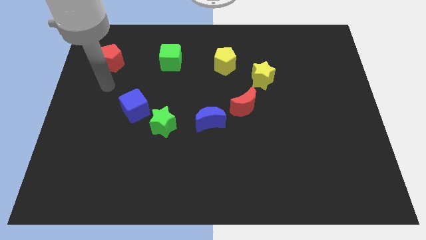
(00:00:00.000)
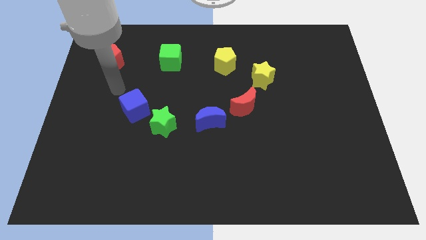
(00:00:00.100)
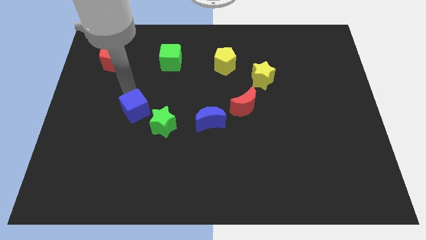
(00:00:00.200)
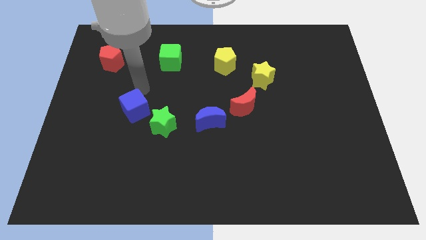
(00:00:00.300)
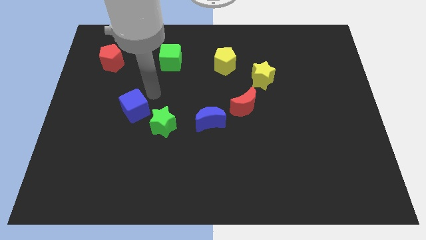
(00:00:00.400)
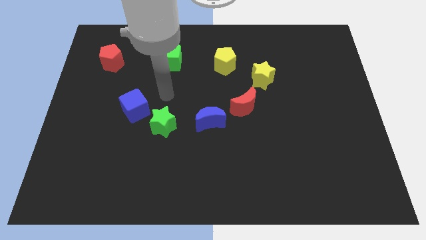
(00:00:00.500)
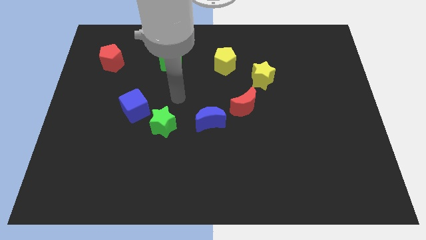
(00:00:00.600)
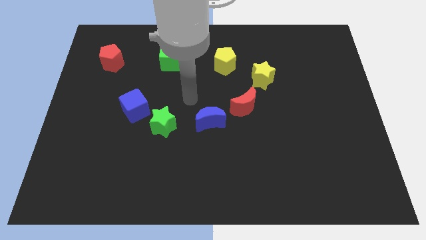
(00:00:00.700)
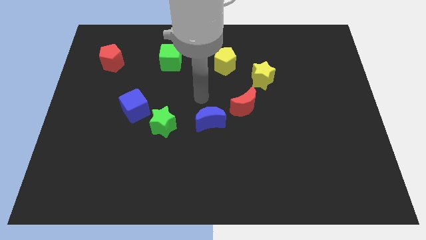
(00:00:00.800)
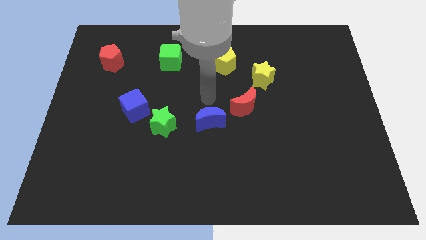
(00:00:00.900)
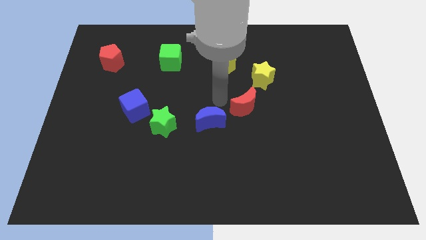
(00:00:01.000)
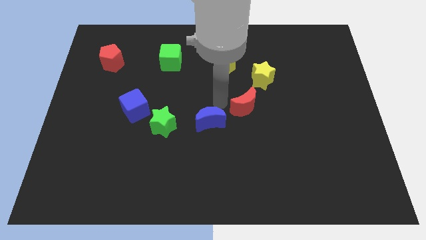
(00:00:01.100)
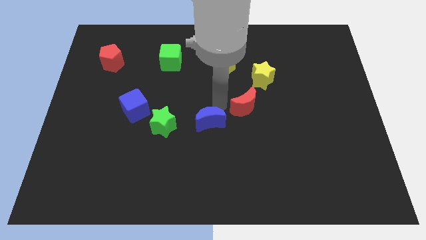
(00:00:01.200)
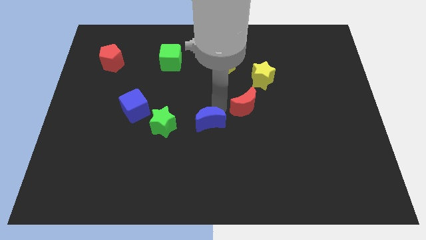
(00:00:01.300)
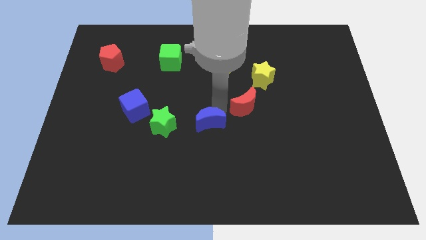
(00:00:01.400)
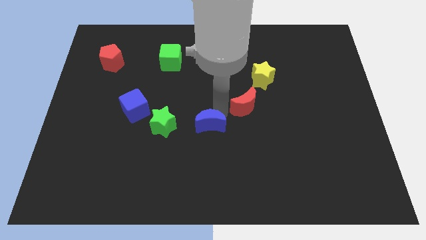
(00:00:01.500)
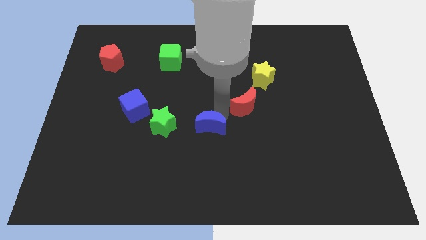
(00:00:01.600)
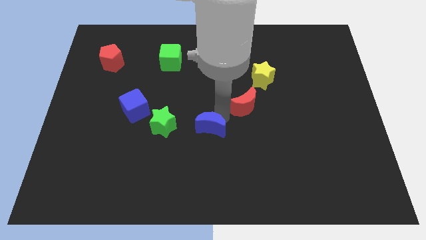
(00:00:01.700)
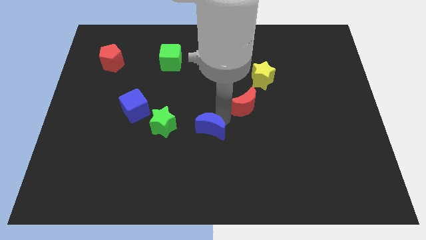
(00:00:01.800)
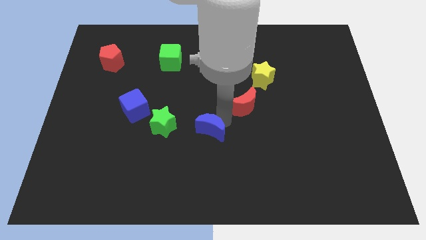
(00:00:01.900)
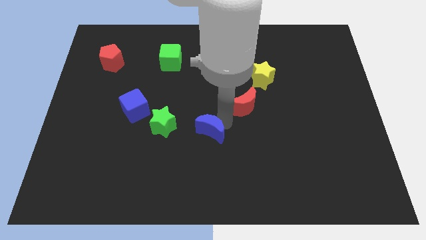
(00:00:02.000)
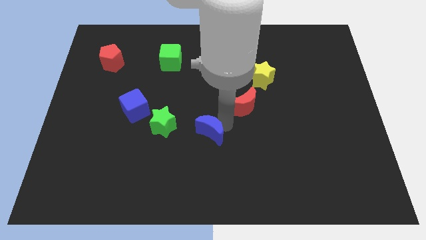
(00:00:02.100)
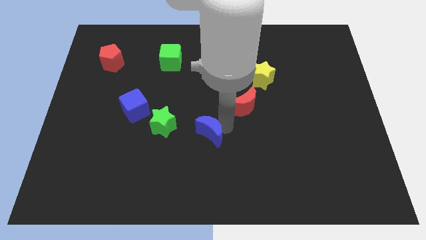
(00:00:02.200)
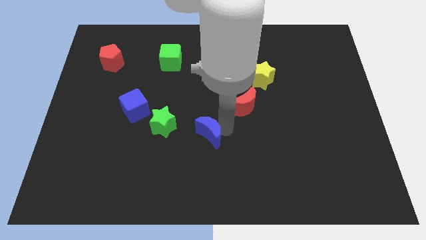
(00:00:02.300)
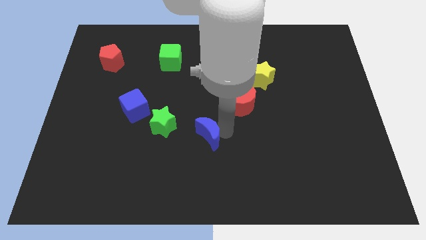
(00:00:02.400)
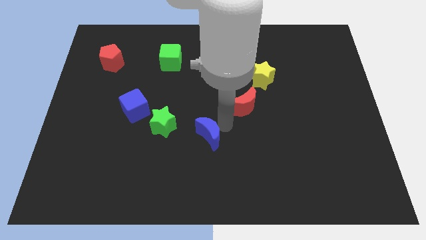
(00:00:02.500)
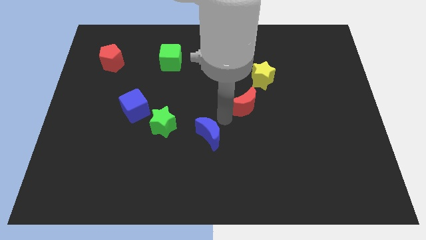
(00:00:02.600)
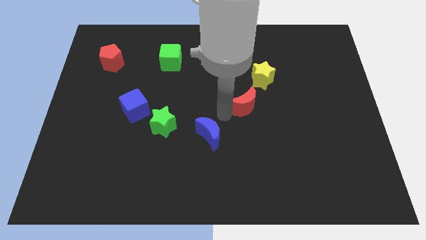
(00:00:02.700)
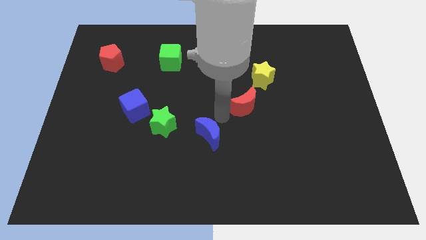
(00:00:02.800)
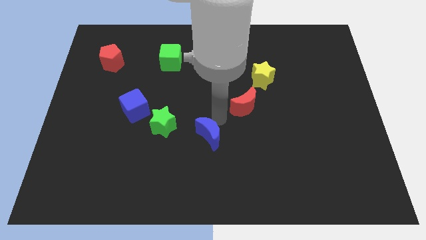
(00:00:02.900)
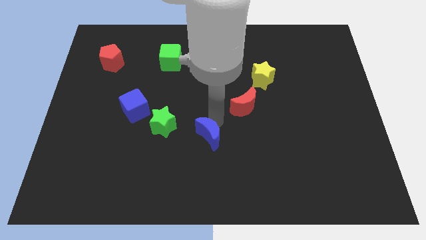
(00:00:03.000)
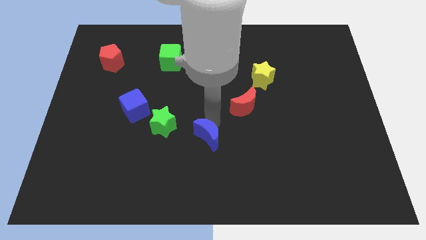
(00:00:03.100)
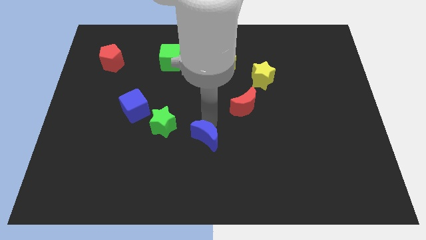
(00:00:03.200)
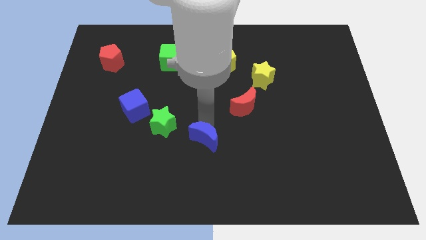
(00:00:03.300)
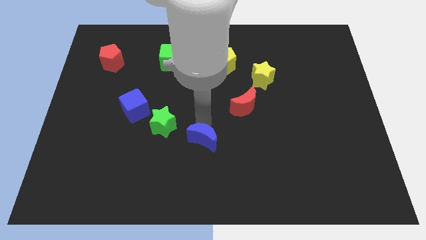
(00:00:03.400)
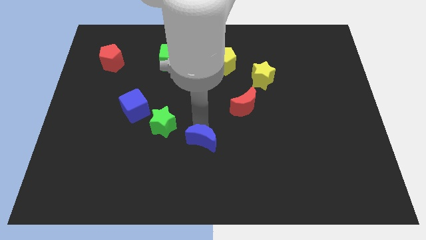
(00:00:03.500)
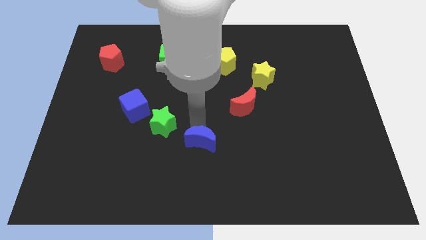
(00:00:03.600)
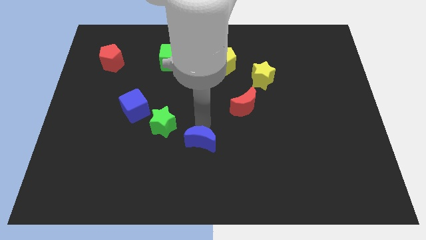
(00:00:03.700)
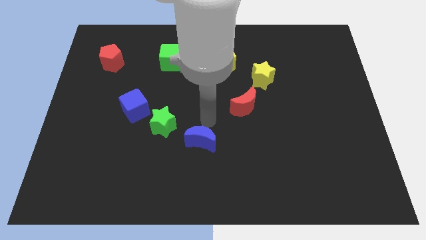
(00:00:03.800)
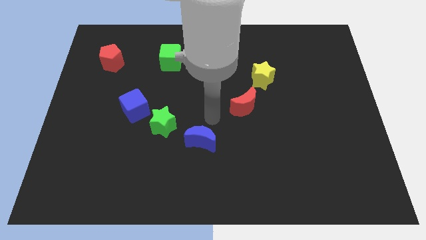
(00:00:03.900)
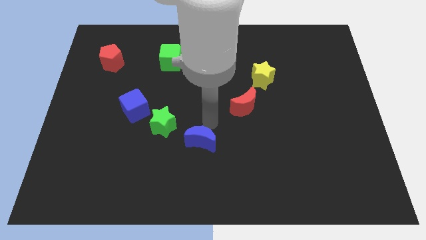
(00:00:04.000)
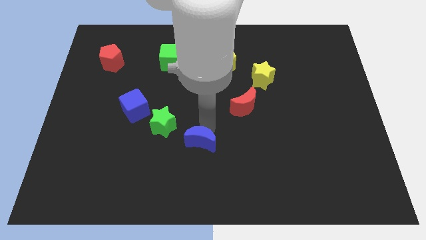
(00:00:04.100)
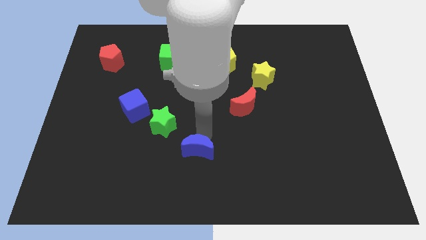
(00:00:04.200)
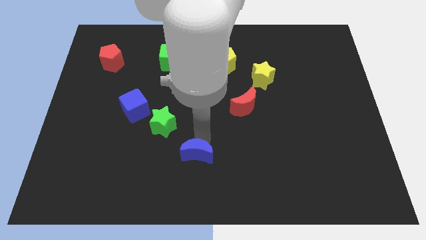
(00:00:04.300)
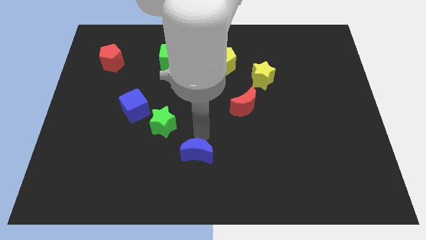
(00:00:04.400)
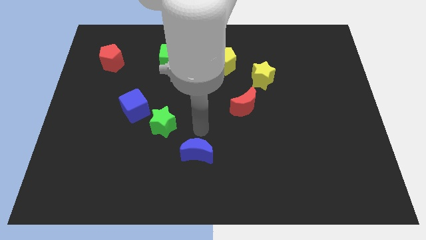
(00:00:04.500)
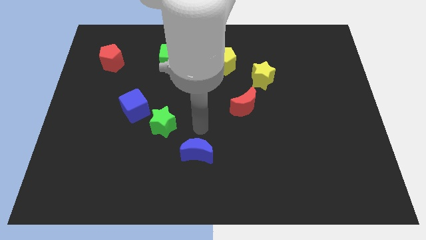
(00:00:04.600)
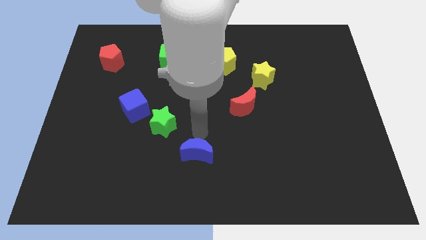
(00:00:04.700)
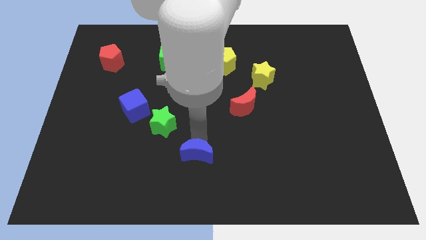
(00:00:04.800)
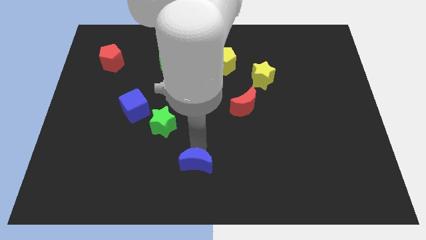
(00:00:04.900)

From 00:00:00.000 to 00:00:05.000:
slide the blue moon to the bottom
